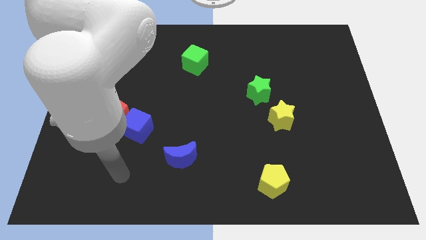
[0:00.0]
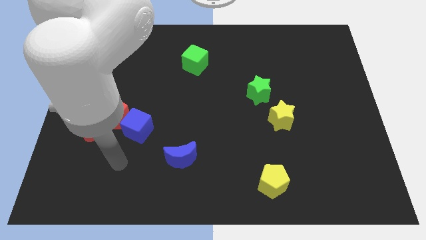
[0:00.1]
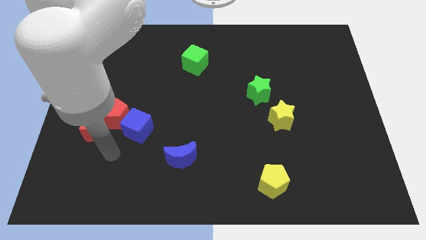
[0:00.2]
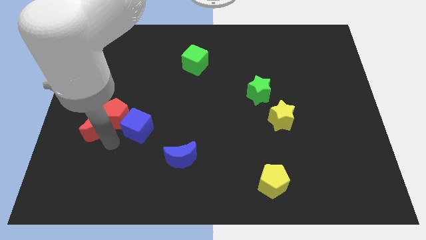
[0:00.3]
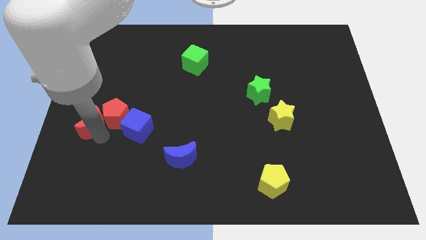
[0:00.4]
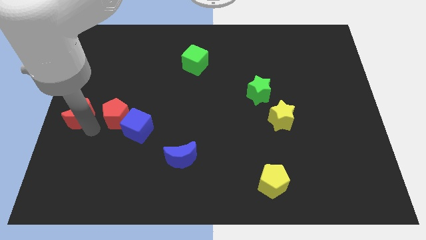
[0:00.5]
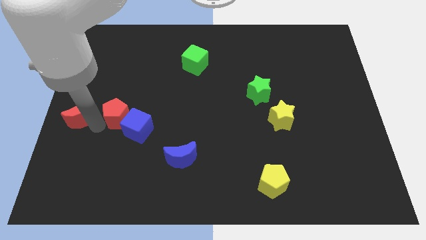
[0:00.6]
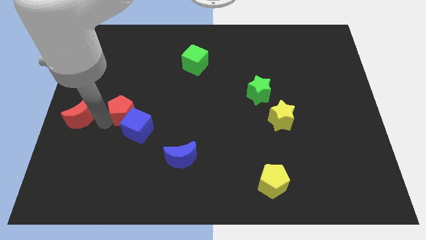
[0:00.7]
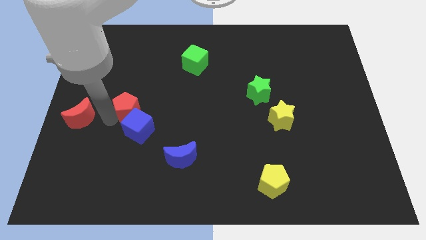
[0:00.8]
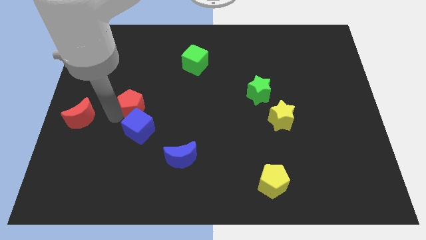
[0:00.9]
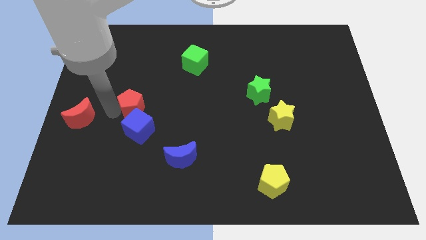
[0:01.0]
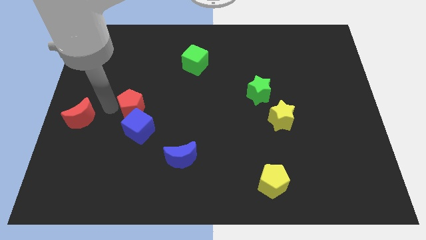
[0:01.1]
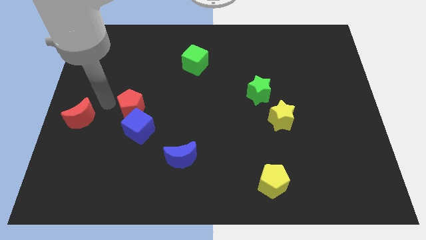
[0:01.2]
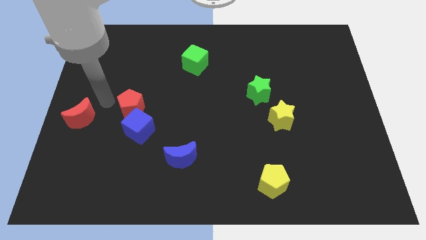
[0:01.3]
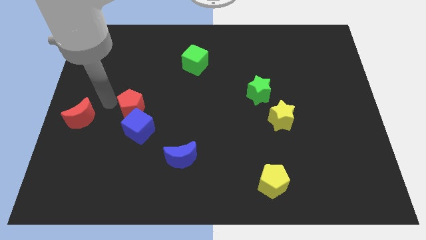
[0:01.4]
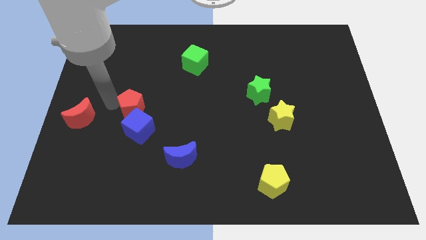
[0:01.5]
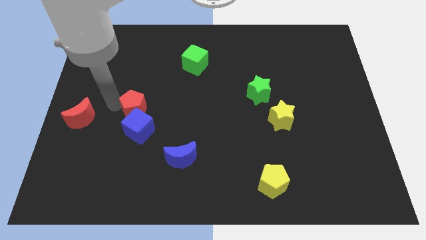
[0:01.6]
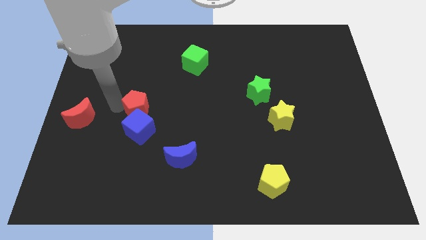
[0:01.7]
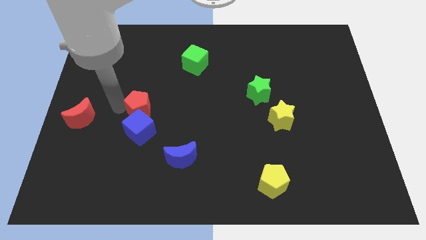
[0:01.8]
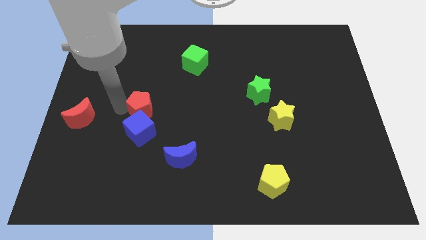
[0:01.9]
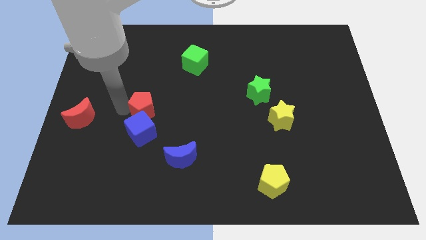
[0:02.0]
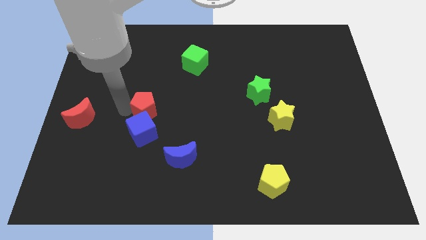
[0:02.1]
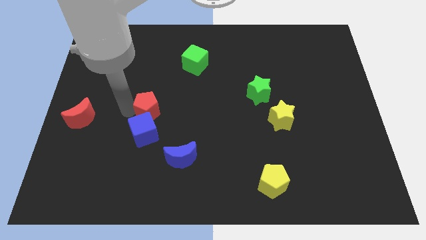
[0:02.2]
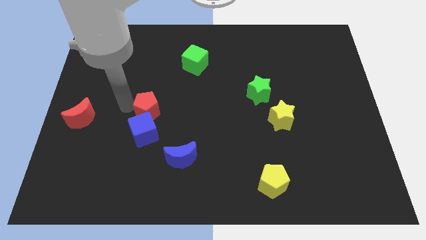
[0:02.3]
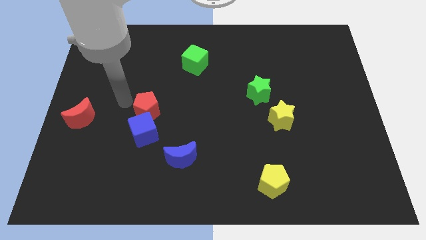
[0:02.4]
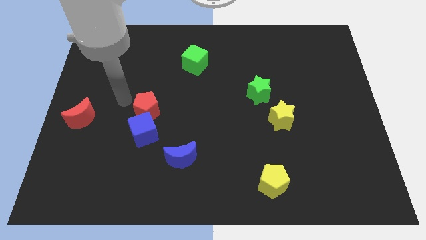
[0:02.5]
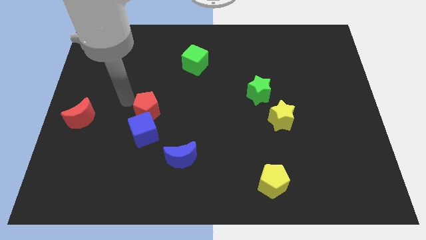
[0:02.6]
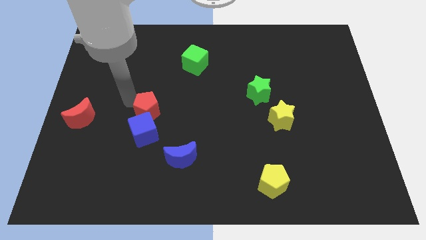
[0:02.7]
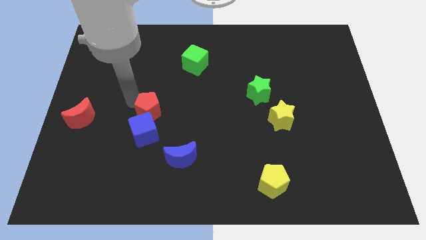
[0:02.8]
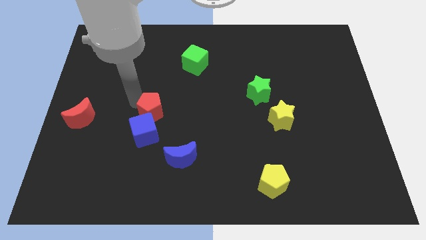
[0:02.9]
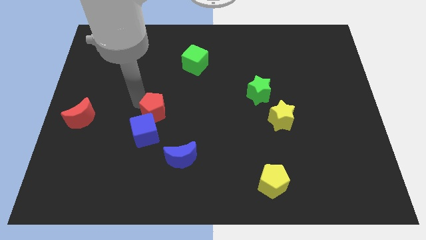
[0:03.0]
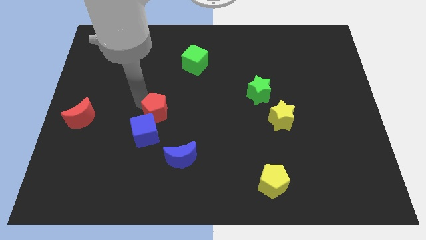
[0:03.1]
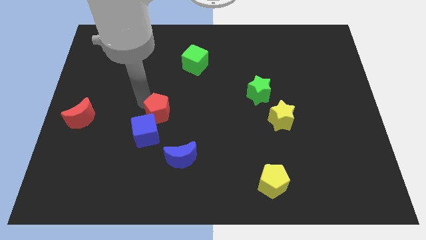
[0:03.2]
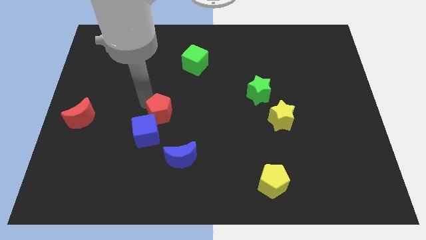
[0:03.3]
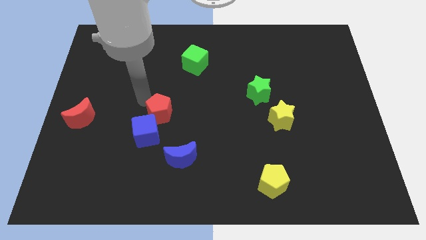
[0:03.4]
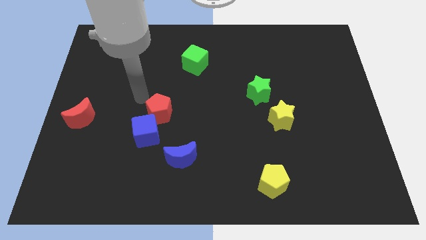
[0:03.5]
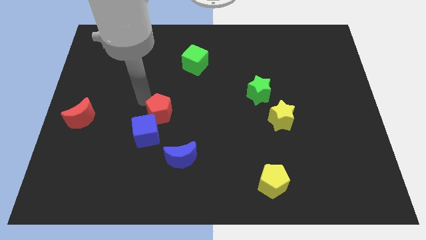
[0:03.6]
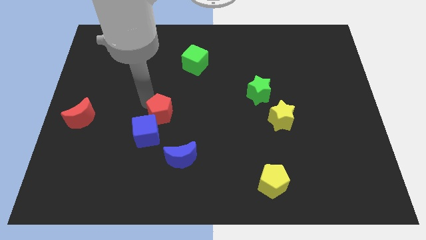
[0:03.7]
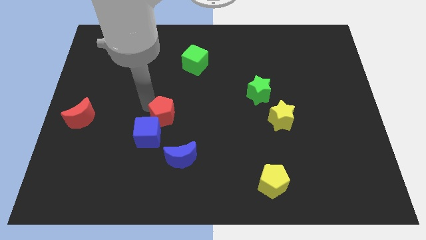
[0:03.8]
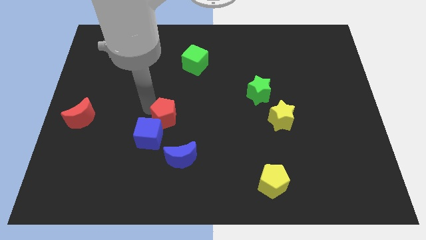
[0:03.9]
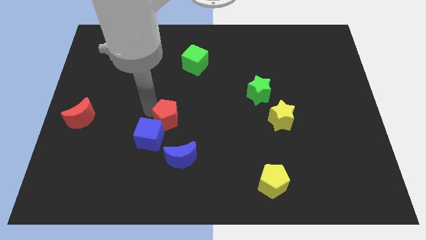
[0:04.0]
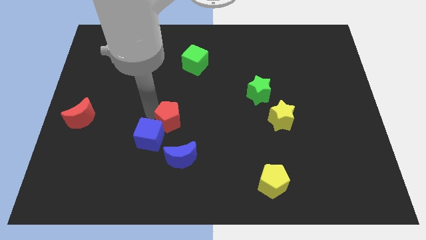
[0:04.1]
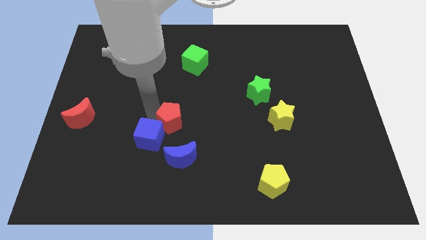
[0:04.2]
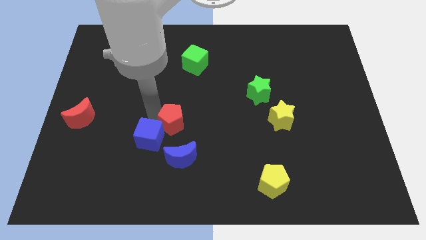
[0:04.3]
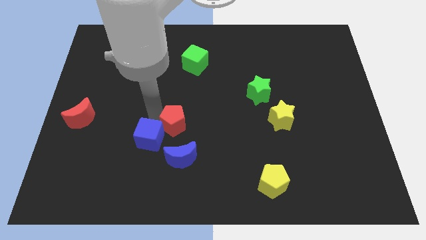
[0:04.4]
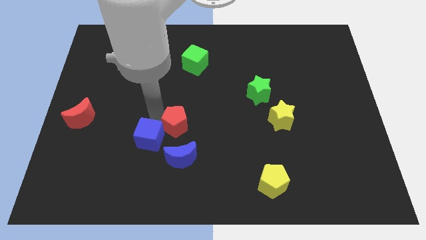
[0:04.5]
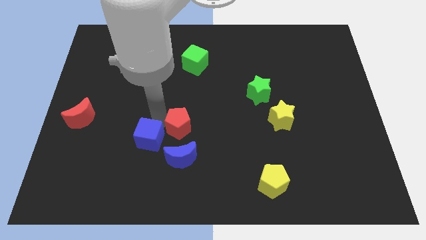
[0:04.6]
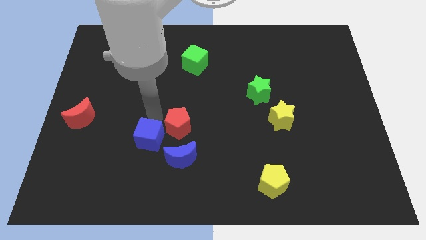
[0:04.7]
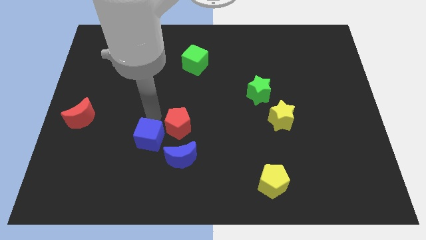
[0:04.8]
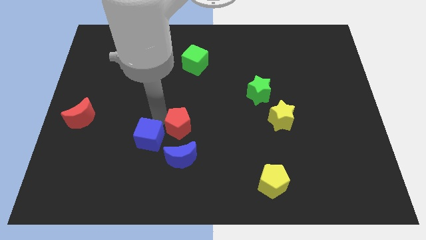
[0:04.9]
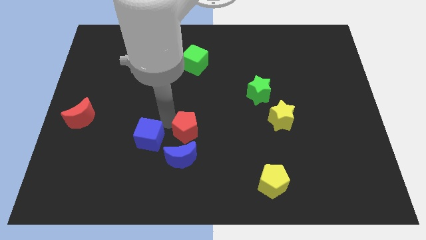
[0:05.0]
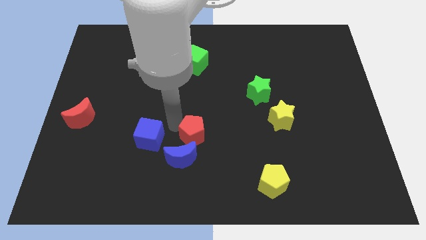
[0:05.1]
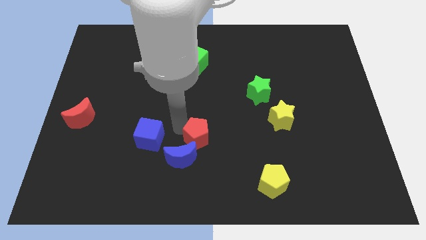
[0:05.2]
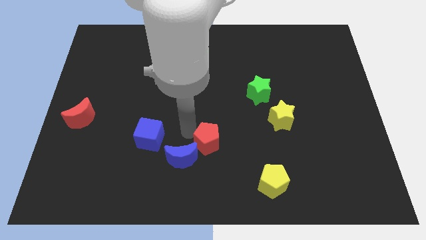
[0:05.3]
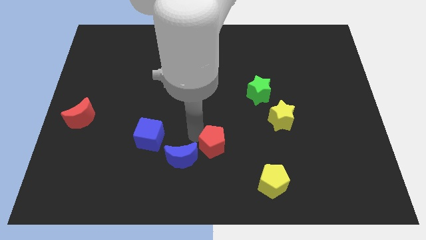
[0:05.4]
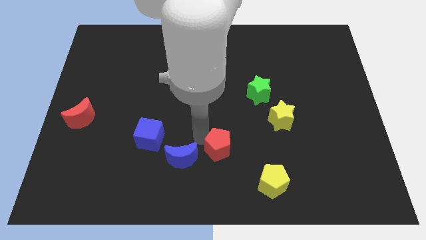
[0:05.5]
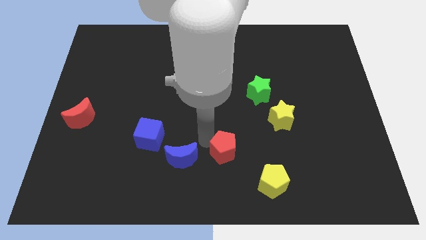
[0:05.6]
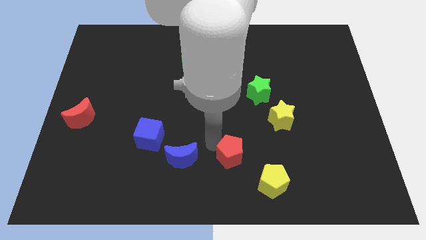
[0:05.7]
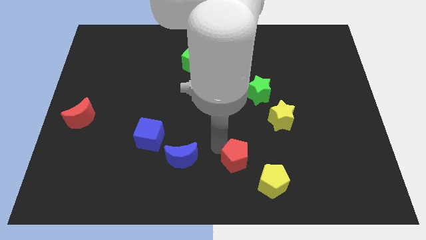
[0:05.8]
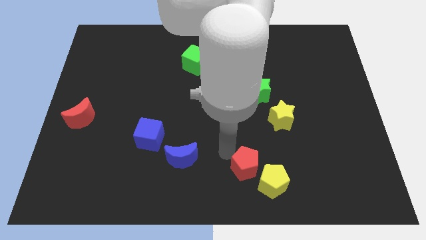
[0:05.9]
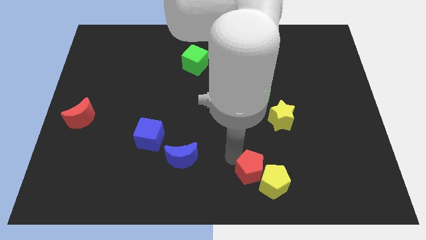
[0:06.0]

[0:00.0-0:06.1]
push the red pentagon to the yellow pentagon

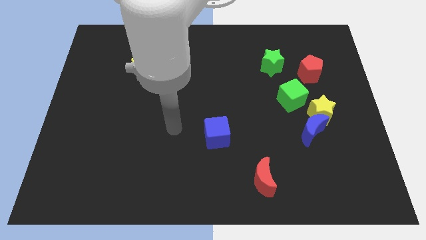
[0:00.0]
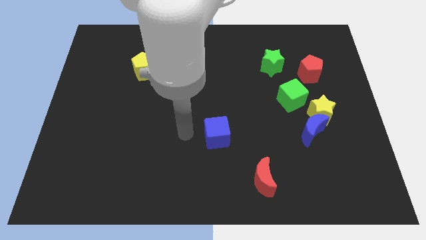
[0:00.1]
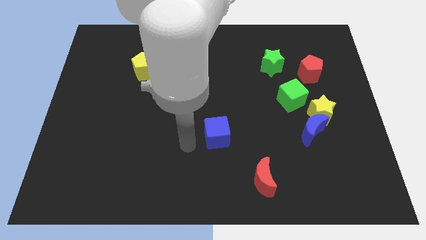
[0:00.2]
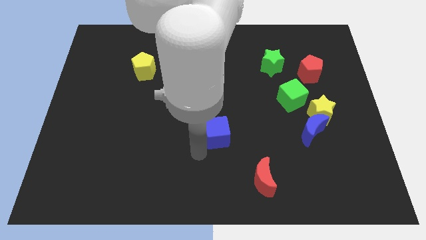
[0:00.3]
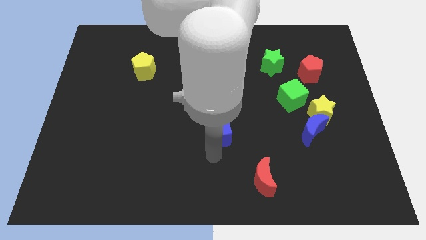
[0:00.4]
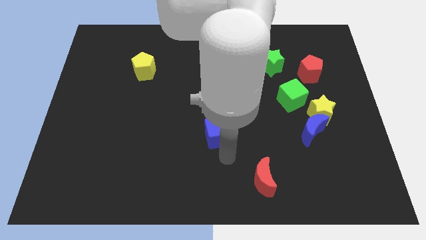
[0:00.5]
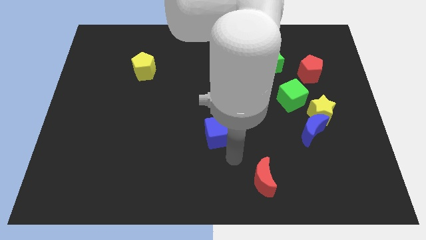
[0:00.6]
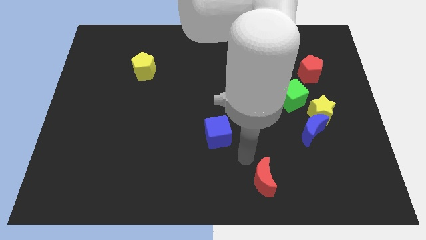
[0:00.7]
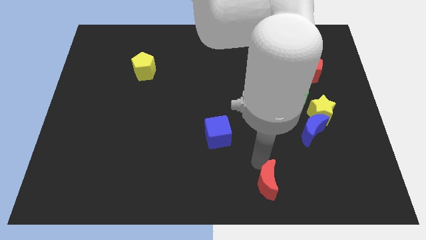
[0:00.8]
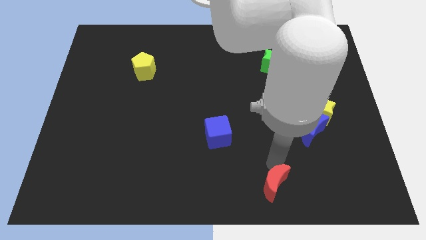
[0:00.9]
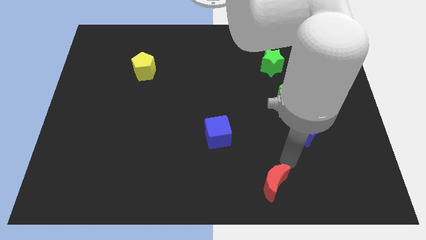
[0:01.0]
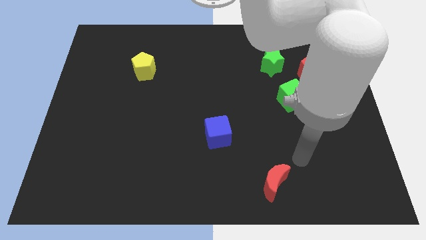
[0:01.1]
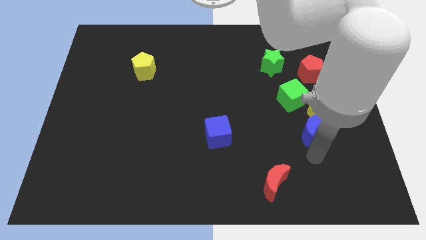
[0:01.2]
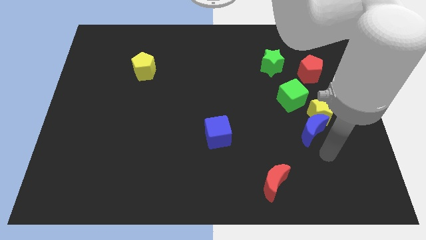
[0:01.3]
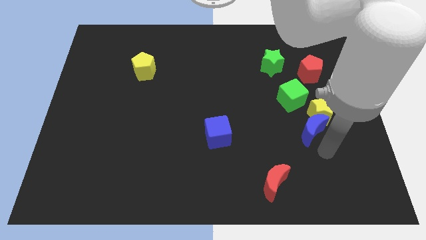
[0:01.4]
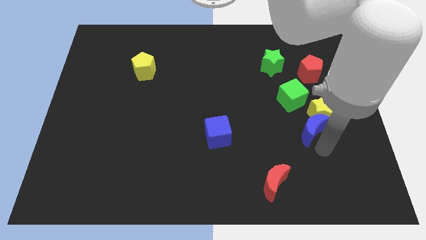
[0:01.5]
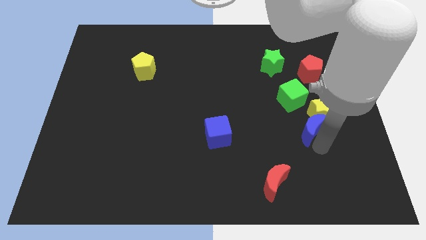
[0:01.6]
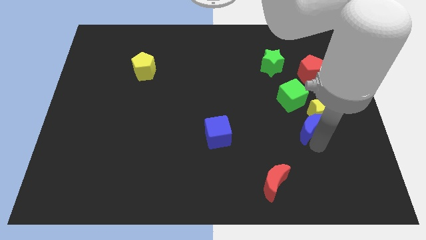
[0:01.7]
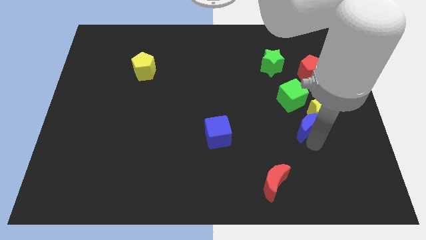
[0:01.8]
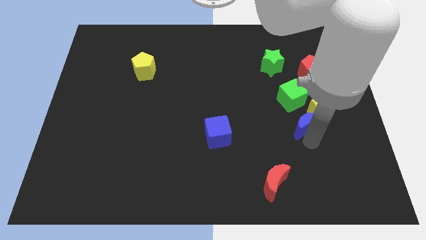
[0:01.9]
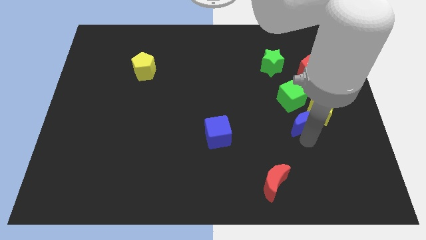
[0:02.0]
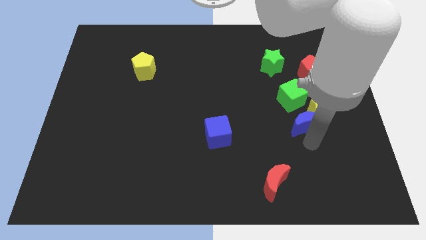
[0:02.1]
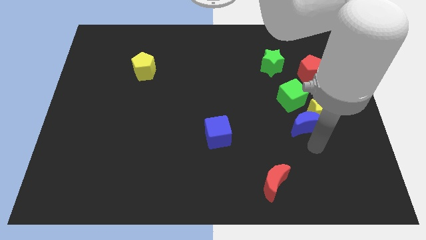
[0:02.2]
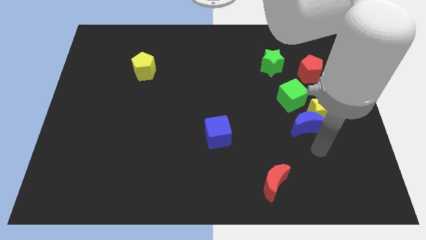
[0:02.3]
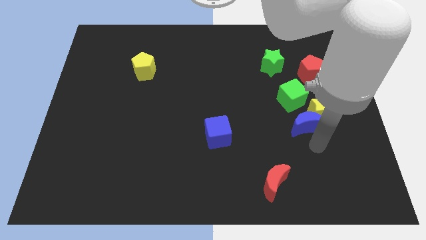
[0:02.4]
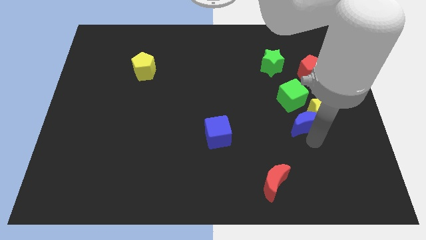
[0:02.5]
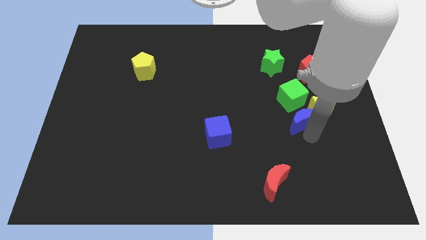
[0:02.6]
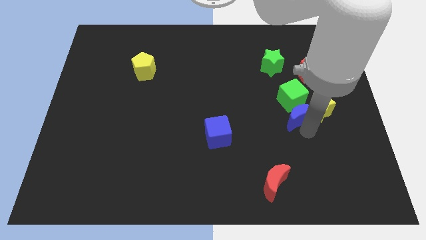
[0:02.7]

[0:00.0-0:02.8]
push the blue moon close to the green cube
